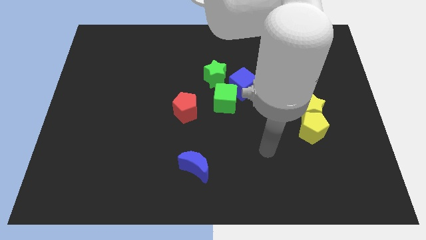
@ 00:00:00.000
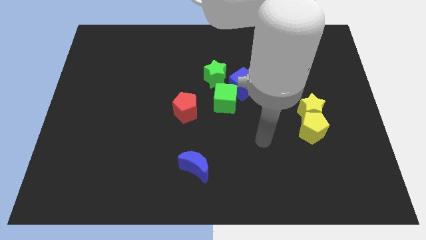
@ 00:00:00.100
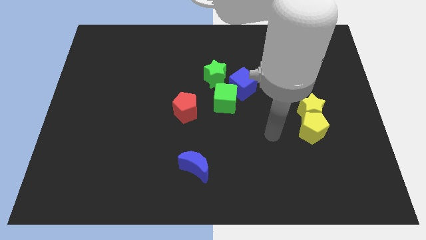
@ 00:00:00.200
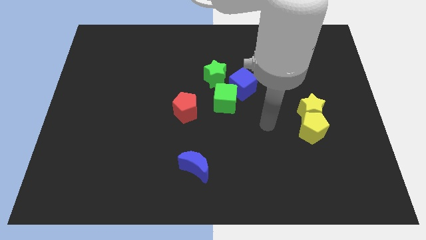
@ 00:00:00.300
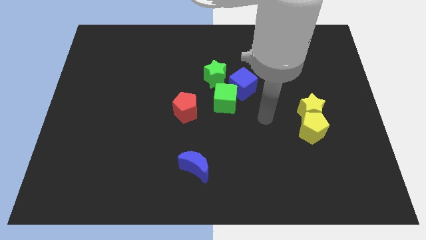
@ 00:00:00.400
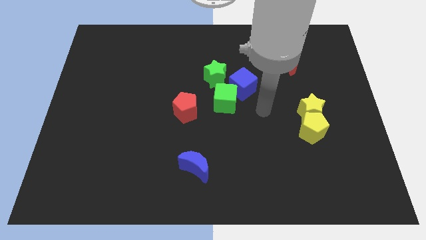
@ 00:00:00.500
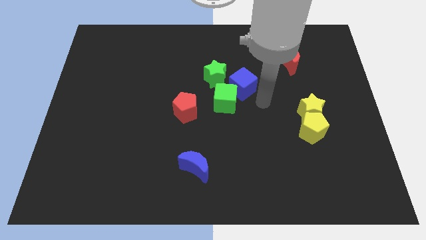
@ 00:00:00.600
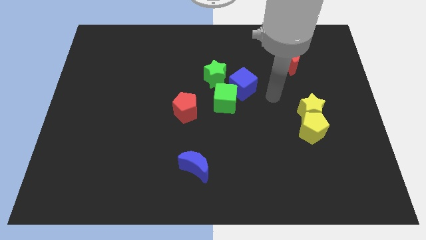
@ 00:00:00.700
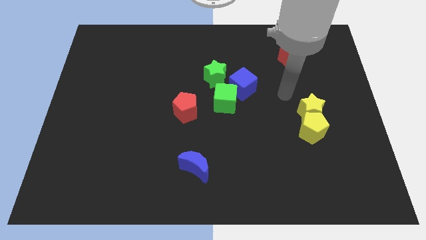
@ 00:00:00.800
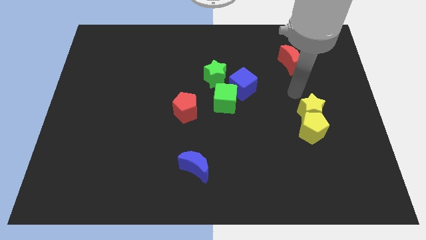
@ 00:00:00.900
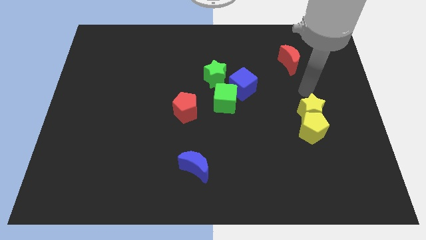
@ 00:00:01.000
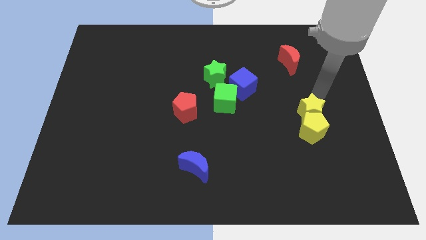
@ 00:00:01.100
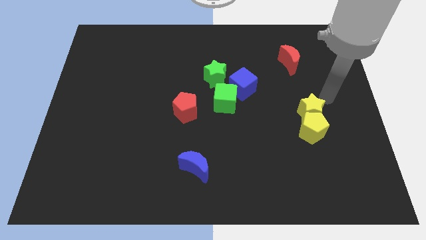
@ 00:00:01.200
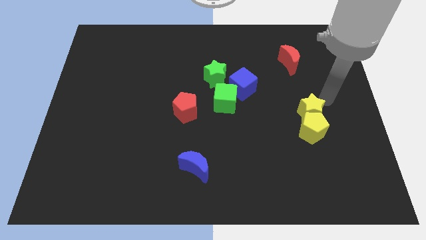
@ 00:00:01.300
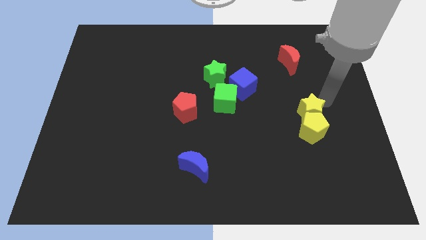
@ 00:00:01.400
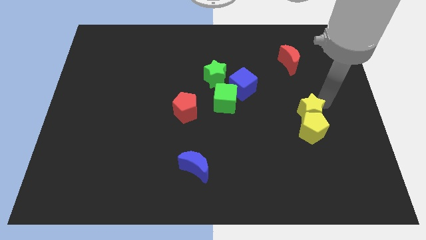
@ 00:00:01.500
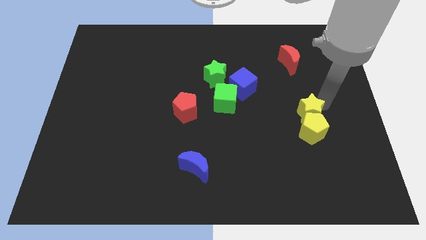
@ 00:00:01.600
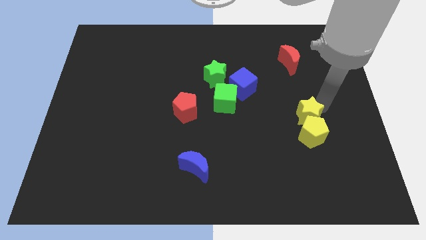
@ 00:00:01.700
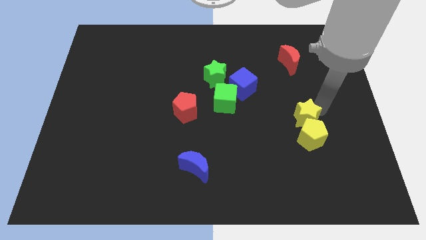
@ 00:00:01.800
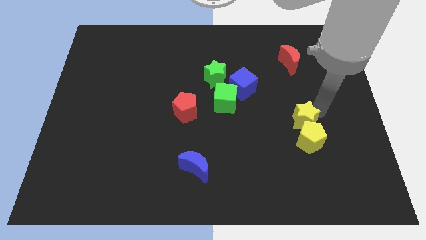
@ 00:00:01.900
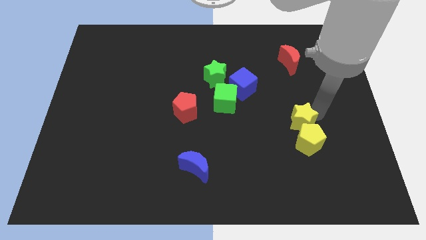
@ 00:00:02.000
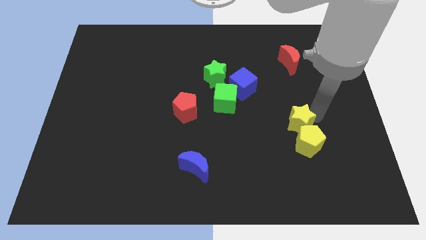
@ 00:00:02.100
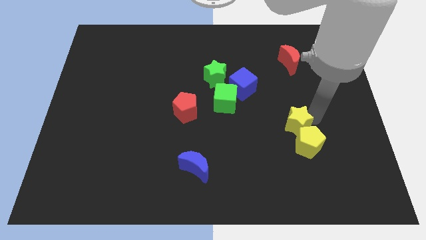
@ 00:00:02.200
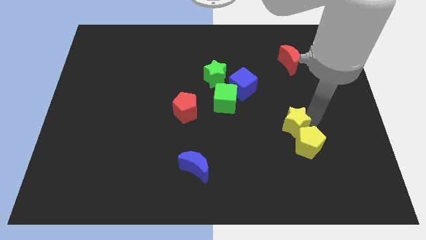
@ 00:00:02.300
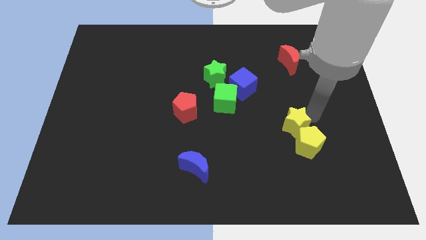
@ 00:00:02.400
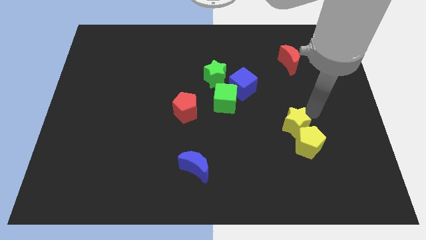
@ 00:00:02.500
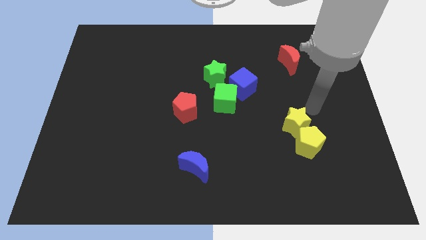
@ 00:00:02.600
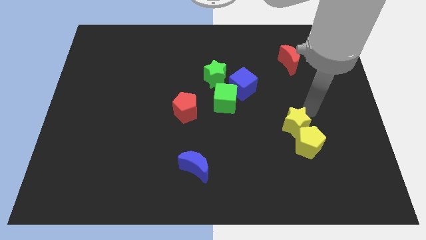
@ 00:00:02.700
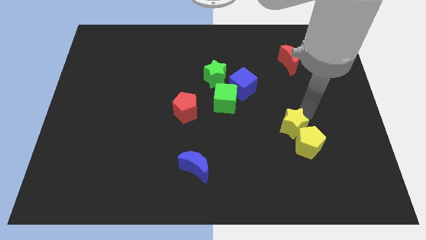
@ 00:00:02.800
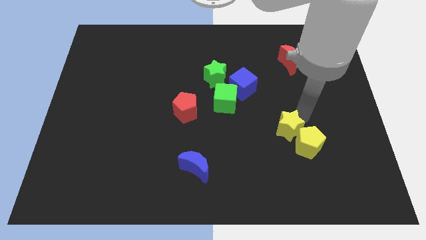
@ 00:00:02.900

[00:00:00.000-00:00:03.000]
slide the yellow star downwards and then to the left a little bit

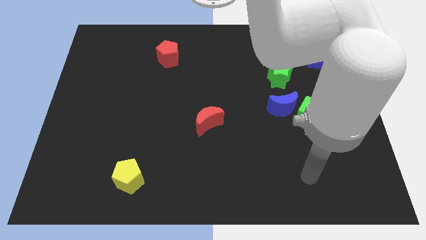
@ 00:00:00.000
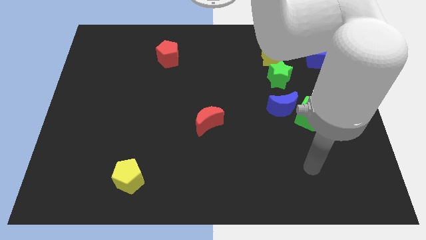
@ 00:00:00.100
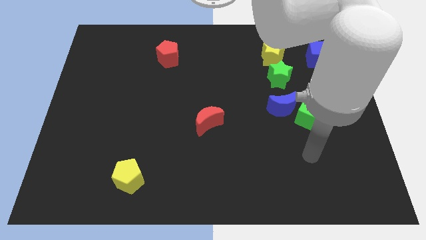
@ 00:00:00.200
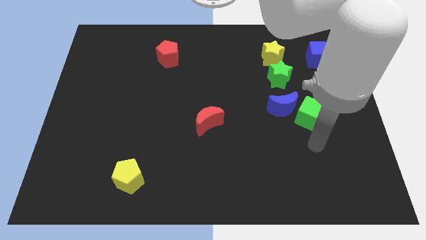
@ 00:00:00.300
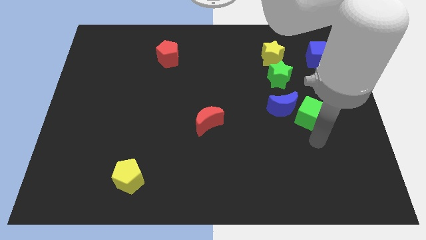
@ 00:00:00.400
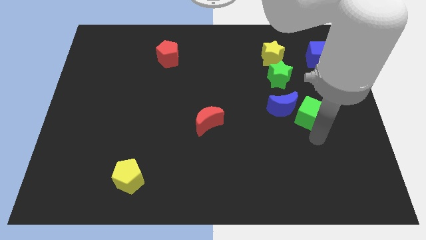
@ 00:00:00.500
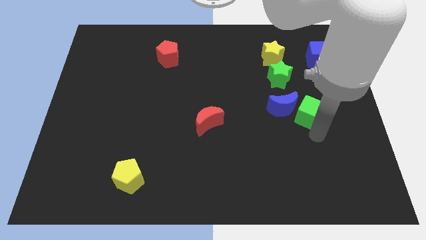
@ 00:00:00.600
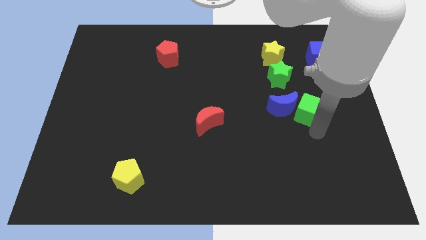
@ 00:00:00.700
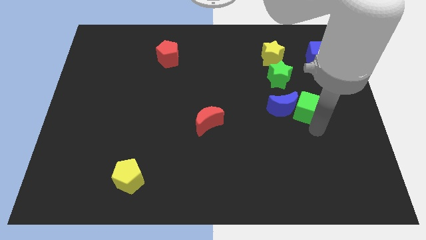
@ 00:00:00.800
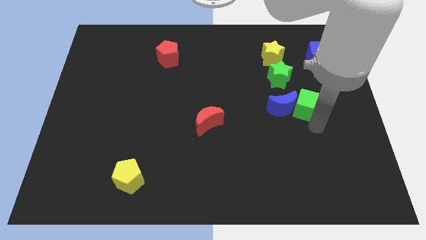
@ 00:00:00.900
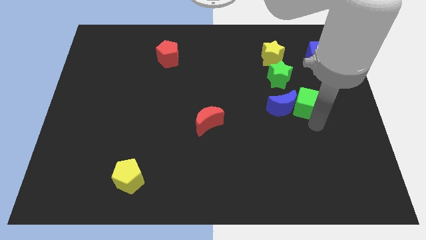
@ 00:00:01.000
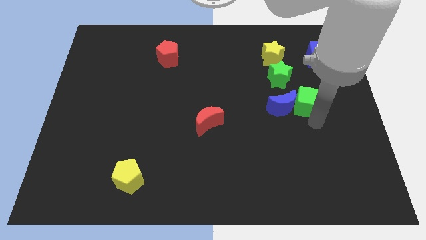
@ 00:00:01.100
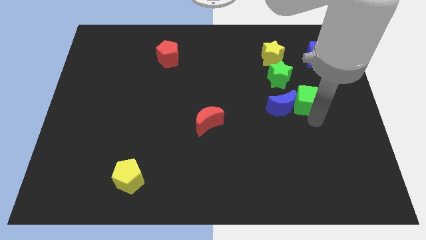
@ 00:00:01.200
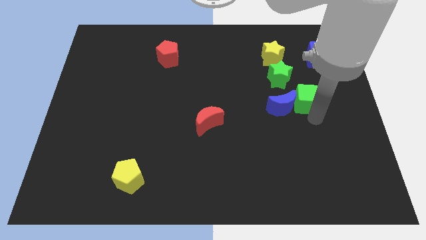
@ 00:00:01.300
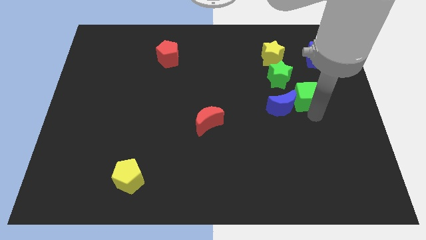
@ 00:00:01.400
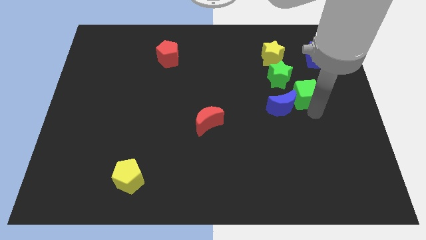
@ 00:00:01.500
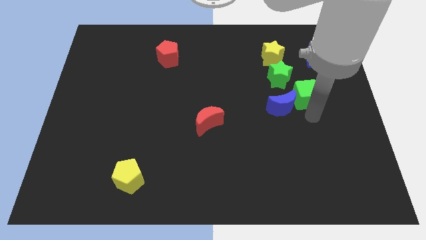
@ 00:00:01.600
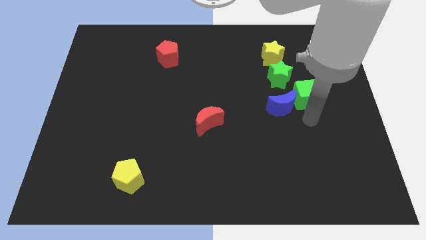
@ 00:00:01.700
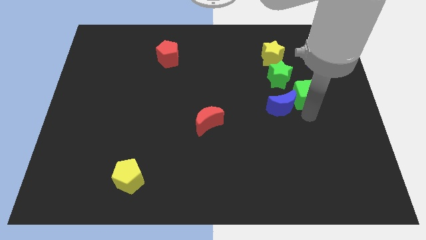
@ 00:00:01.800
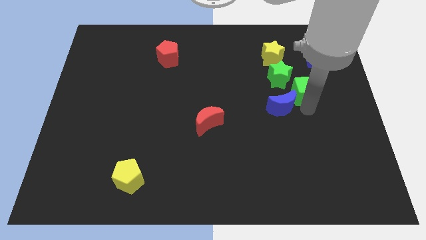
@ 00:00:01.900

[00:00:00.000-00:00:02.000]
slightly push the green cube upwards

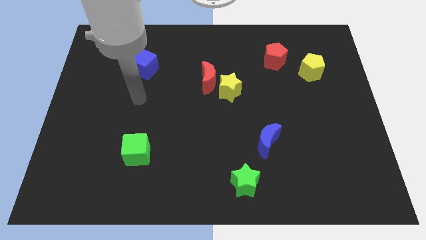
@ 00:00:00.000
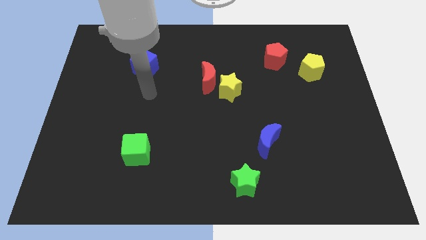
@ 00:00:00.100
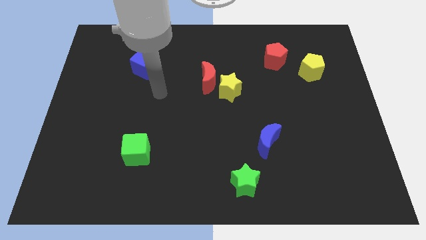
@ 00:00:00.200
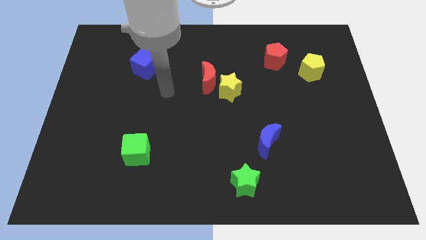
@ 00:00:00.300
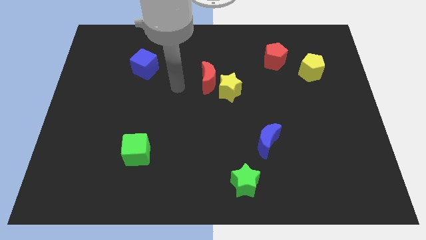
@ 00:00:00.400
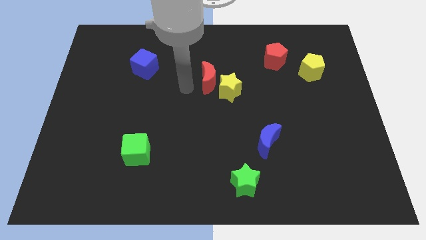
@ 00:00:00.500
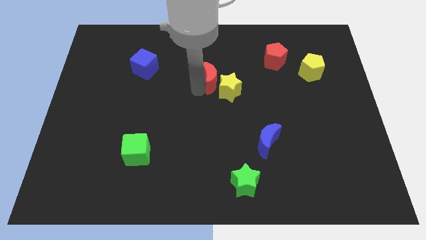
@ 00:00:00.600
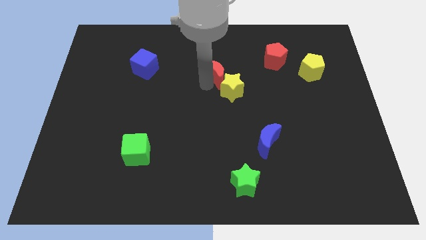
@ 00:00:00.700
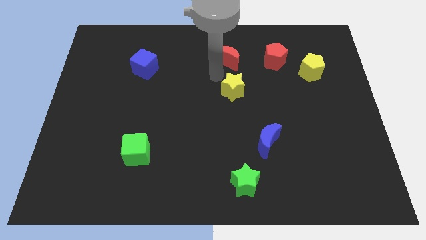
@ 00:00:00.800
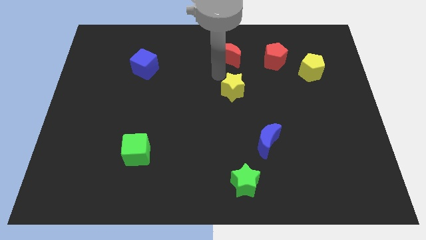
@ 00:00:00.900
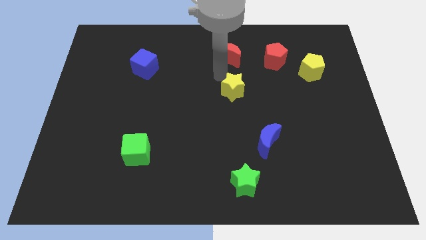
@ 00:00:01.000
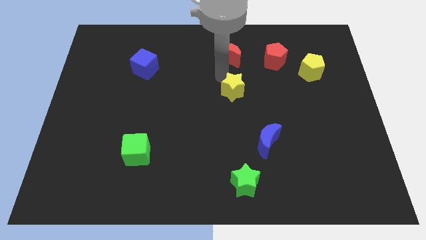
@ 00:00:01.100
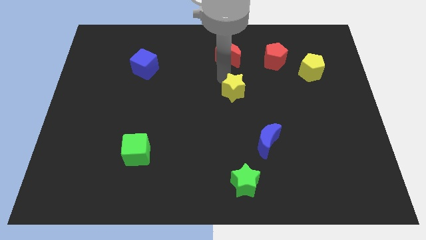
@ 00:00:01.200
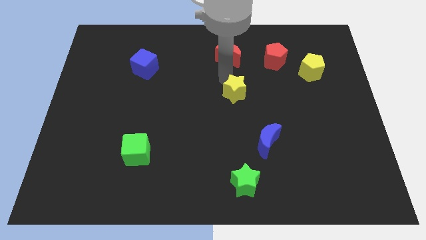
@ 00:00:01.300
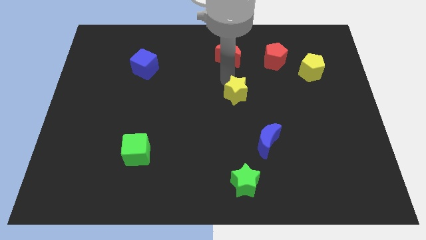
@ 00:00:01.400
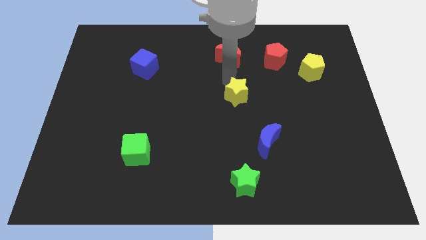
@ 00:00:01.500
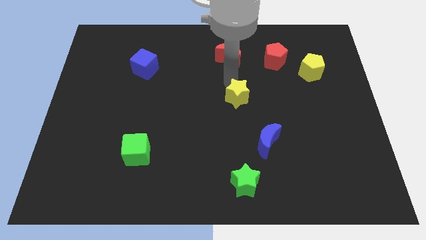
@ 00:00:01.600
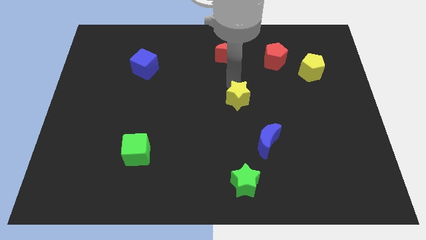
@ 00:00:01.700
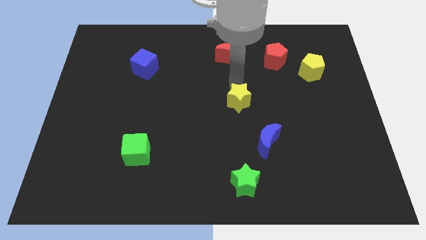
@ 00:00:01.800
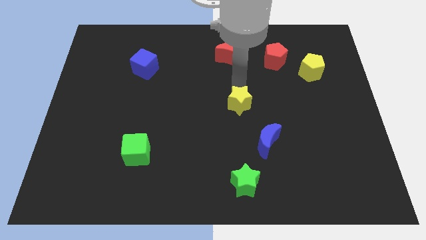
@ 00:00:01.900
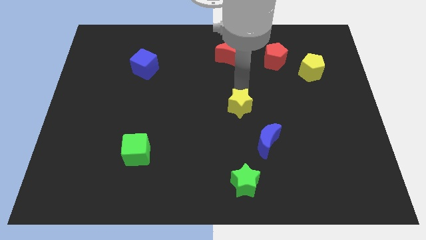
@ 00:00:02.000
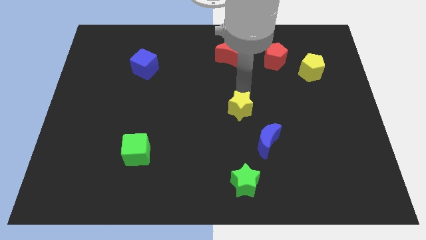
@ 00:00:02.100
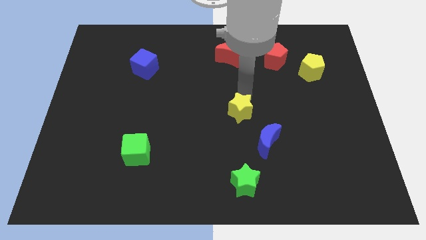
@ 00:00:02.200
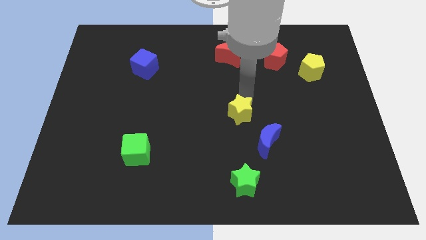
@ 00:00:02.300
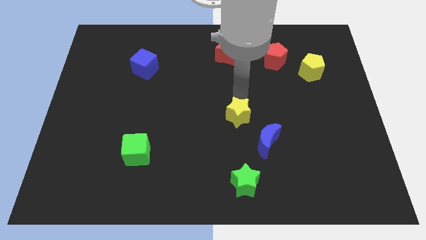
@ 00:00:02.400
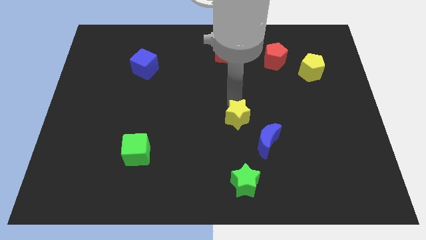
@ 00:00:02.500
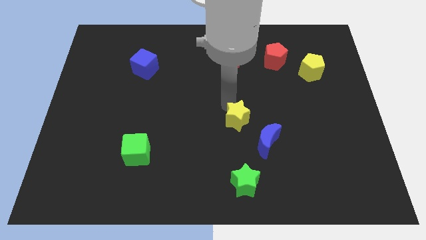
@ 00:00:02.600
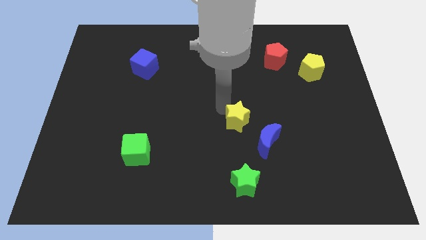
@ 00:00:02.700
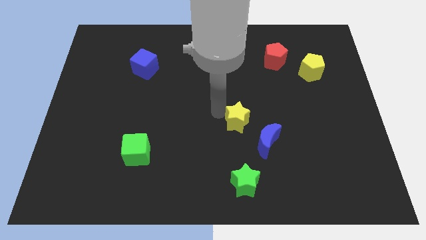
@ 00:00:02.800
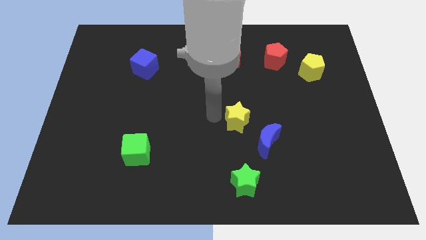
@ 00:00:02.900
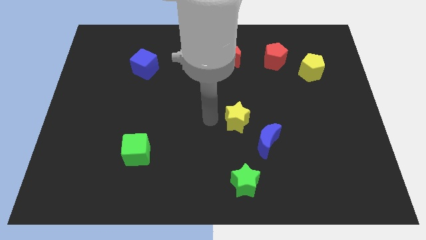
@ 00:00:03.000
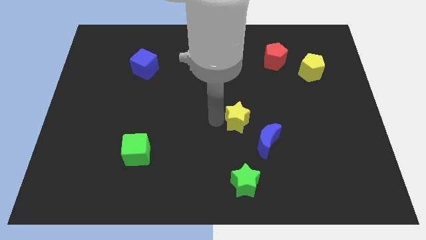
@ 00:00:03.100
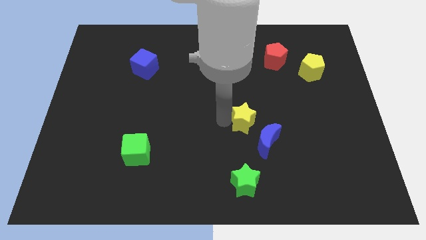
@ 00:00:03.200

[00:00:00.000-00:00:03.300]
move the yellow star downwards and right a little bit
